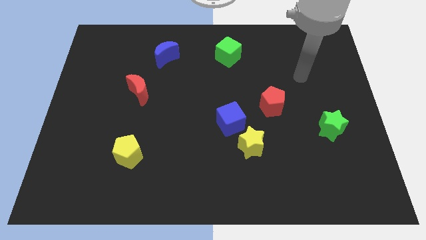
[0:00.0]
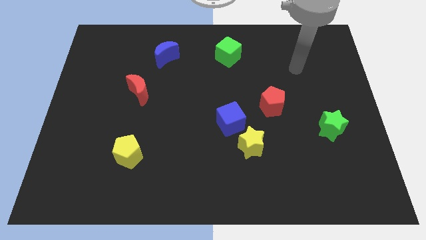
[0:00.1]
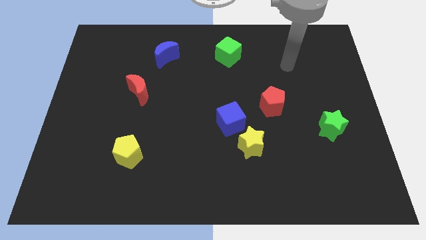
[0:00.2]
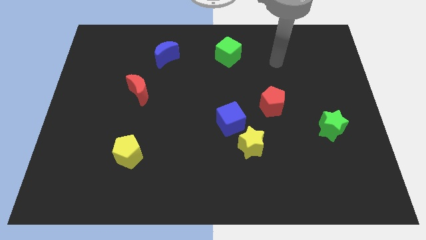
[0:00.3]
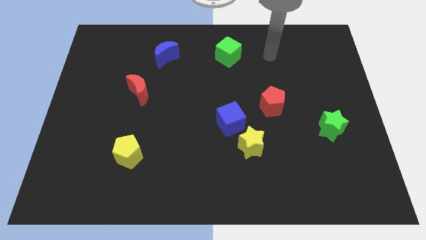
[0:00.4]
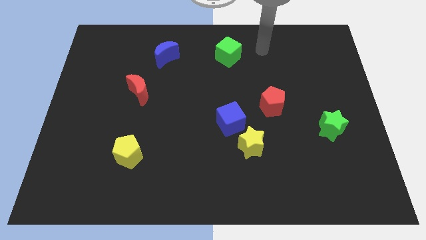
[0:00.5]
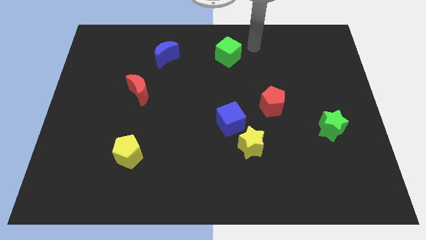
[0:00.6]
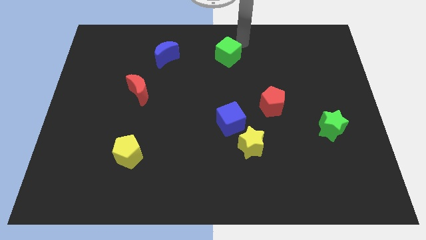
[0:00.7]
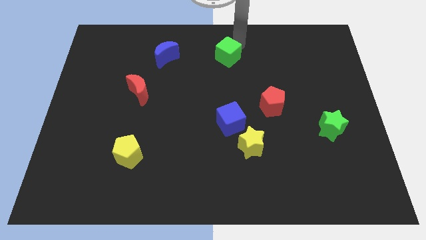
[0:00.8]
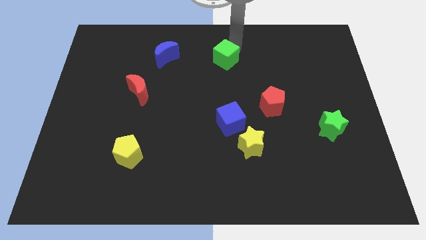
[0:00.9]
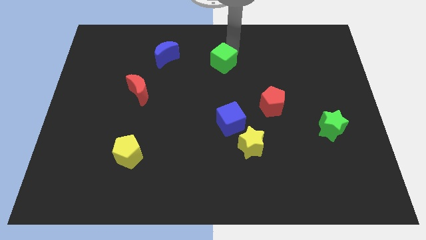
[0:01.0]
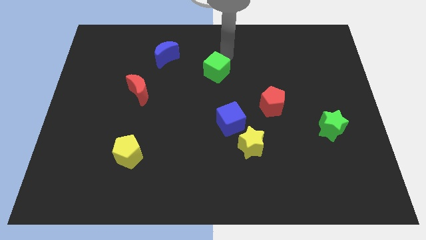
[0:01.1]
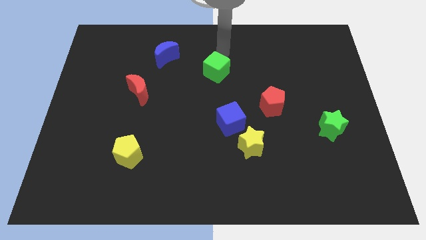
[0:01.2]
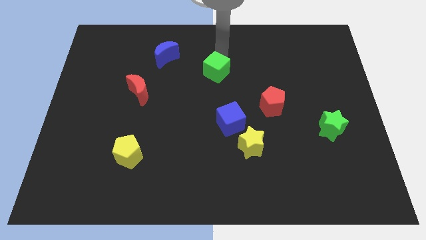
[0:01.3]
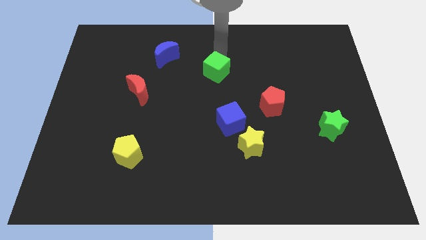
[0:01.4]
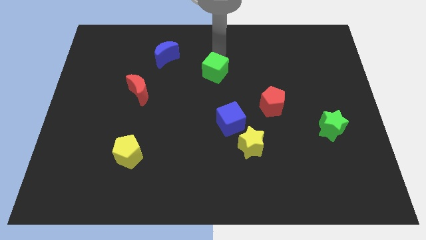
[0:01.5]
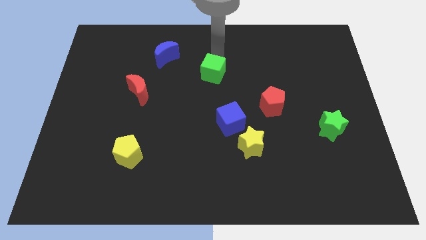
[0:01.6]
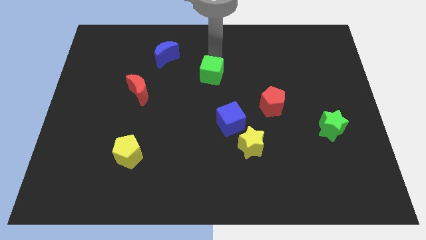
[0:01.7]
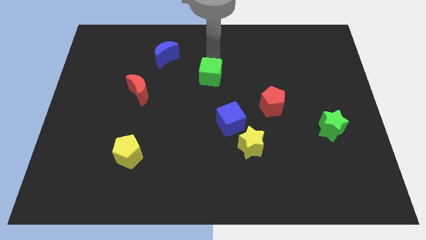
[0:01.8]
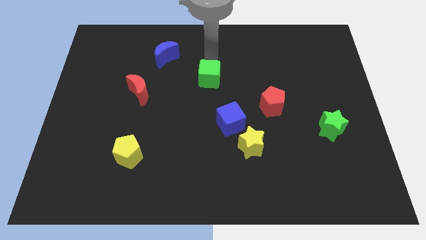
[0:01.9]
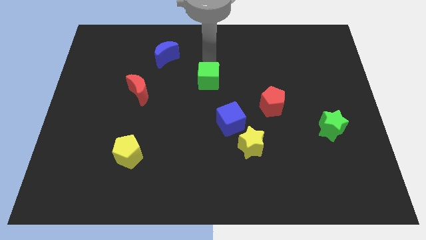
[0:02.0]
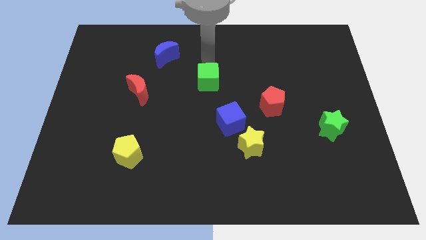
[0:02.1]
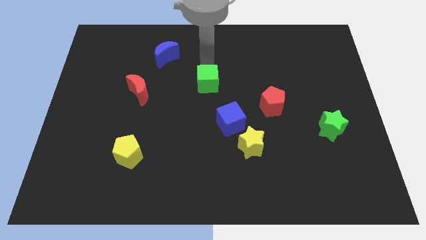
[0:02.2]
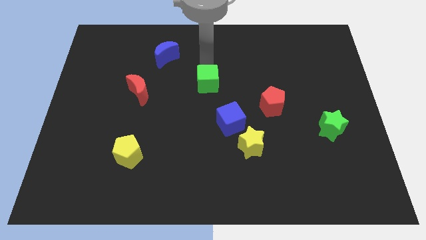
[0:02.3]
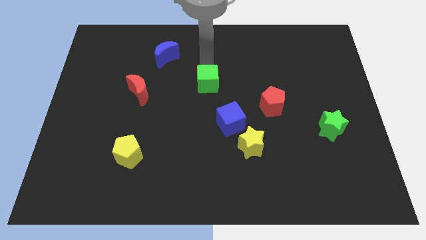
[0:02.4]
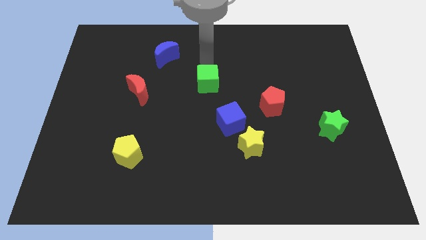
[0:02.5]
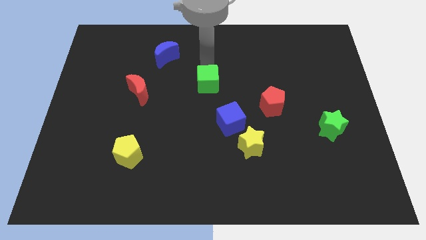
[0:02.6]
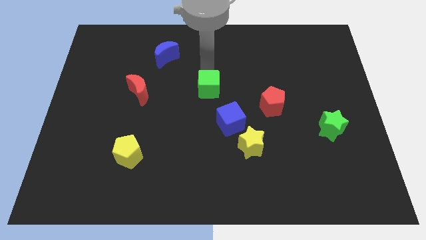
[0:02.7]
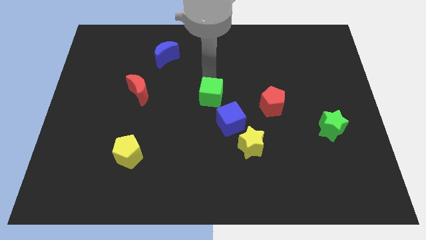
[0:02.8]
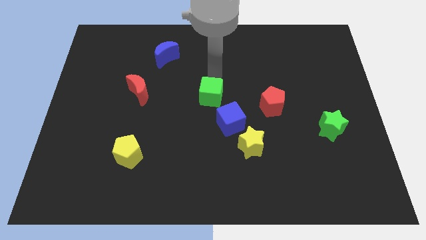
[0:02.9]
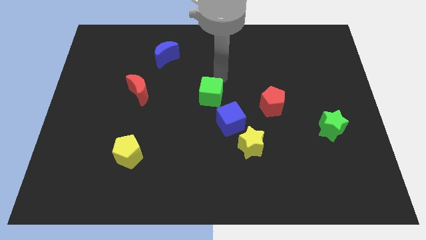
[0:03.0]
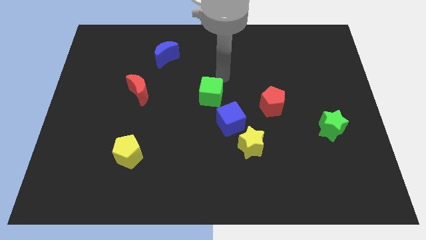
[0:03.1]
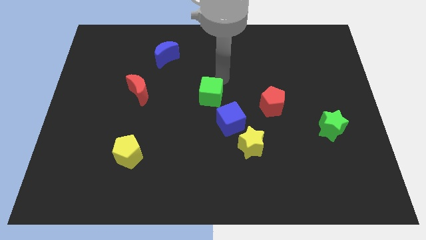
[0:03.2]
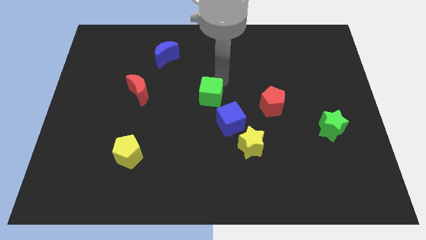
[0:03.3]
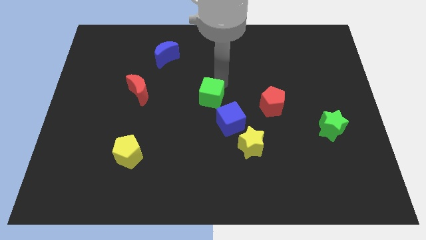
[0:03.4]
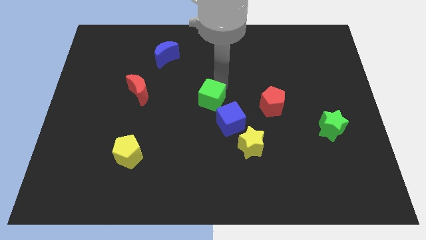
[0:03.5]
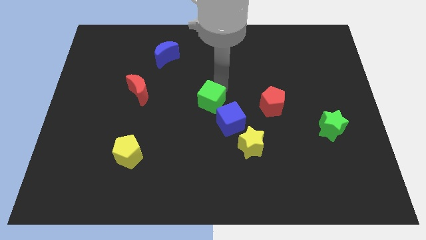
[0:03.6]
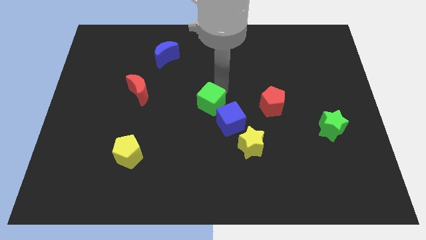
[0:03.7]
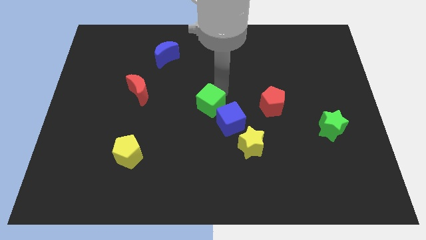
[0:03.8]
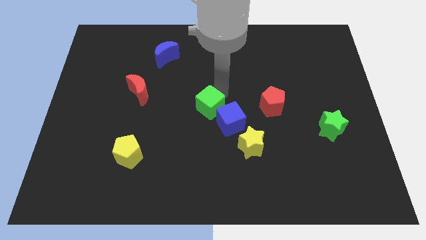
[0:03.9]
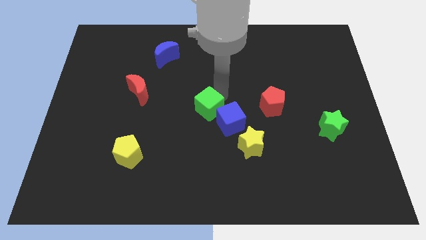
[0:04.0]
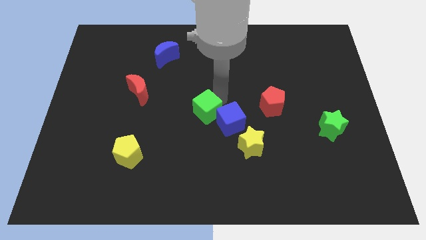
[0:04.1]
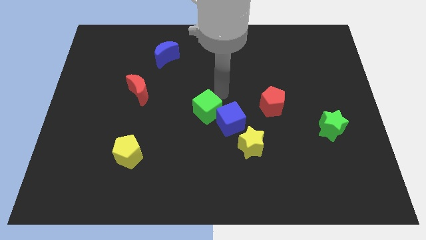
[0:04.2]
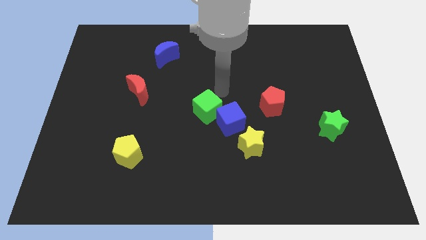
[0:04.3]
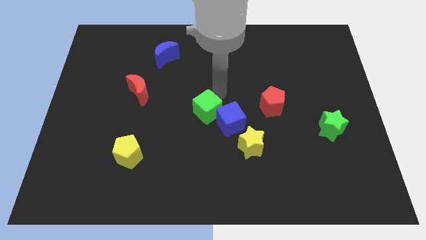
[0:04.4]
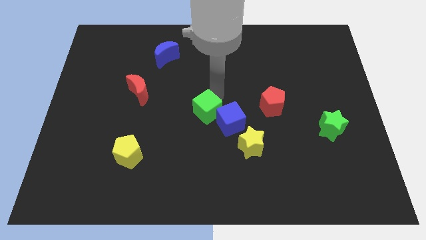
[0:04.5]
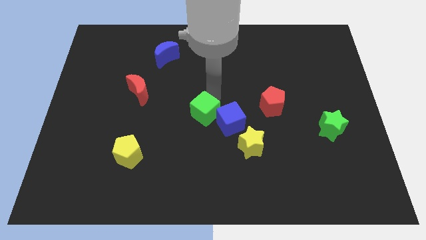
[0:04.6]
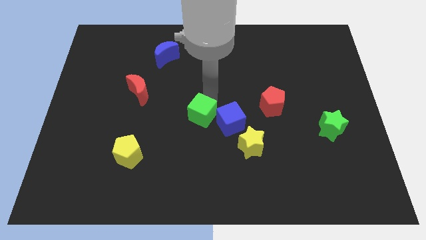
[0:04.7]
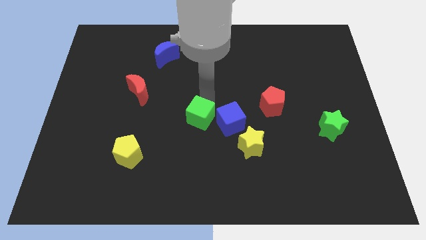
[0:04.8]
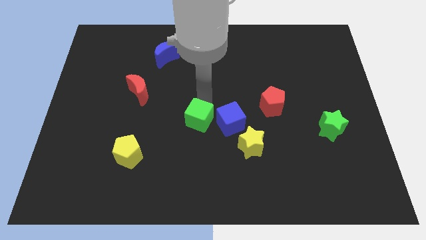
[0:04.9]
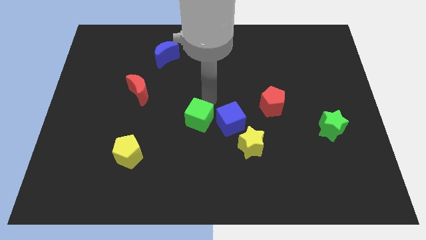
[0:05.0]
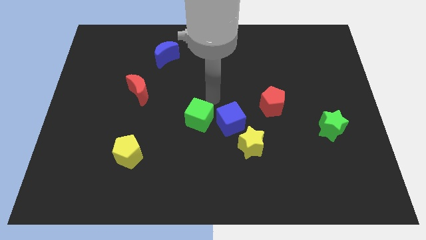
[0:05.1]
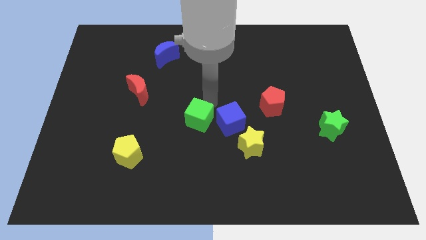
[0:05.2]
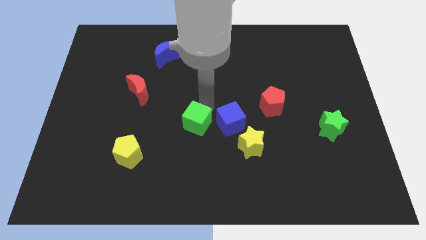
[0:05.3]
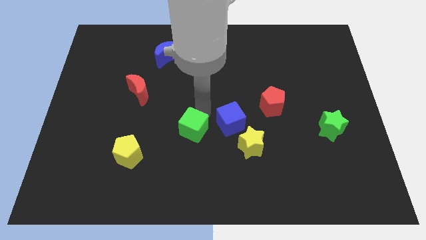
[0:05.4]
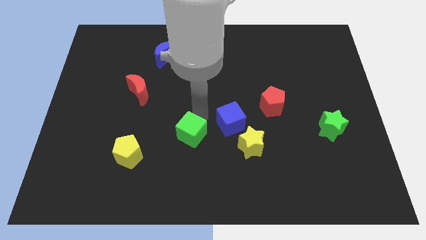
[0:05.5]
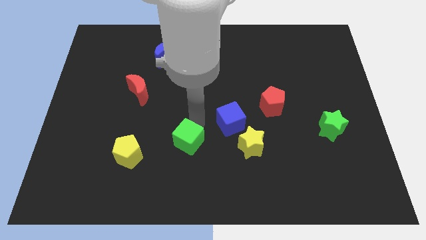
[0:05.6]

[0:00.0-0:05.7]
put the green cube to the right of the yellow pentagon

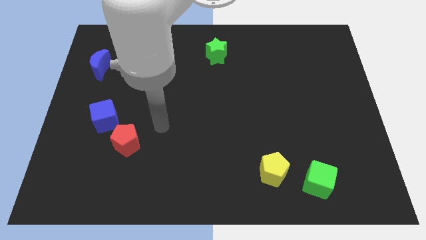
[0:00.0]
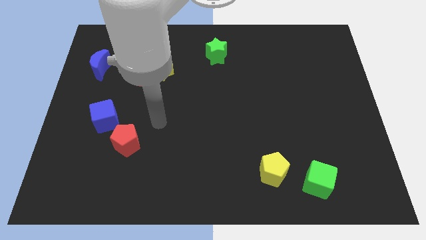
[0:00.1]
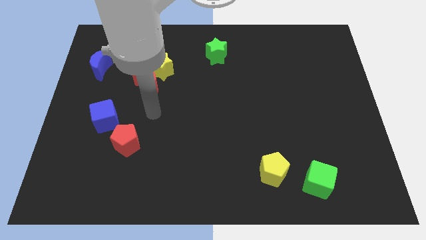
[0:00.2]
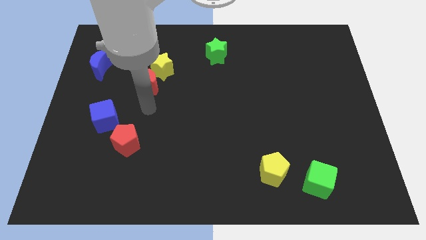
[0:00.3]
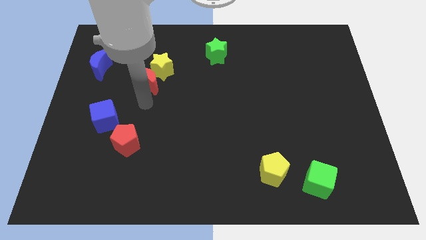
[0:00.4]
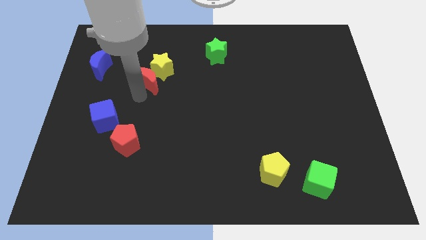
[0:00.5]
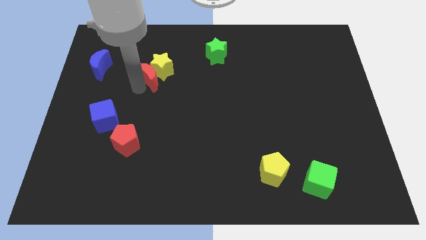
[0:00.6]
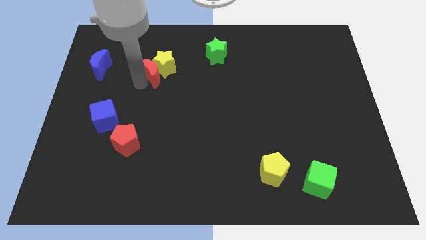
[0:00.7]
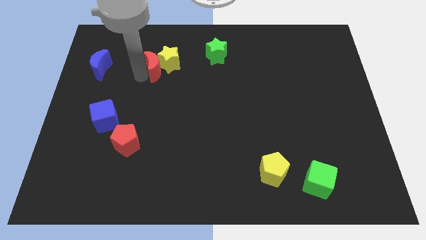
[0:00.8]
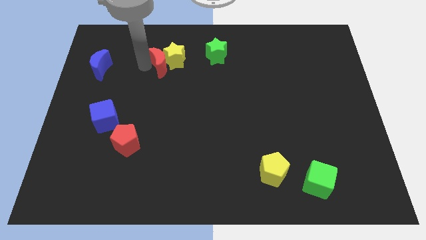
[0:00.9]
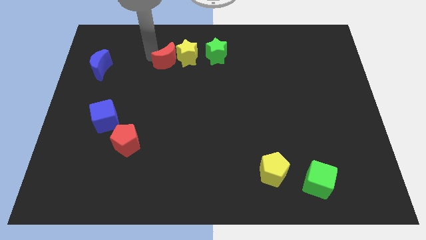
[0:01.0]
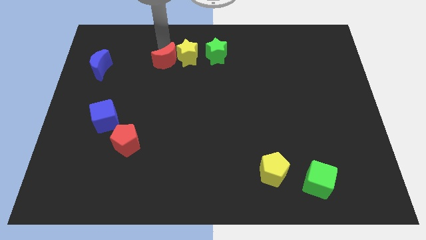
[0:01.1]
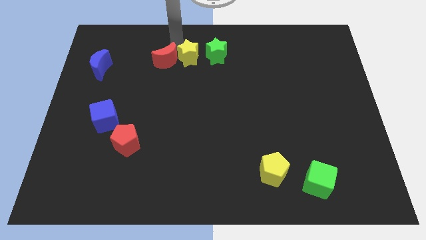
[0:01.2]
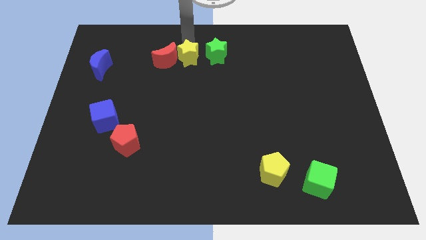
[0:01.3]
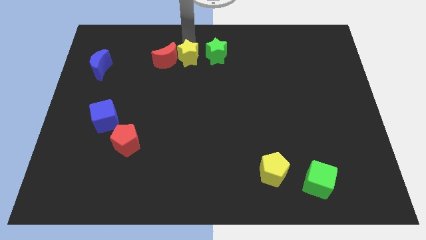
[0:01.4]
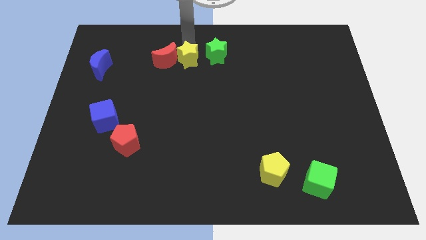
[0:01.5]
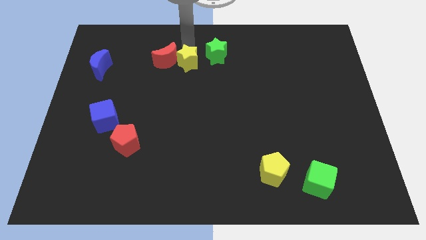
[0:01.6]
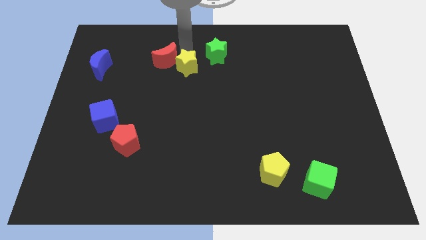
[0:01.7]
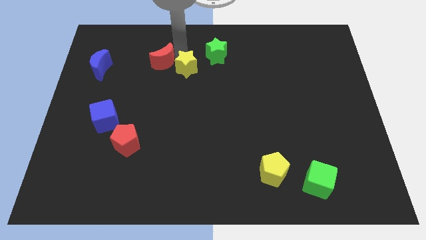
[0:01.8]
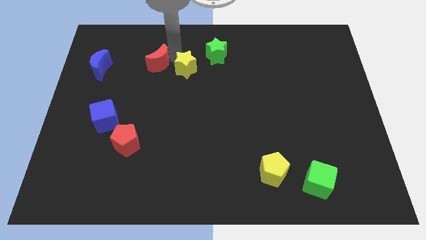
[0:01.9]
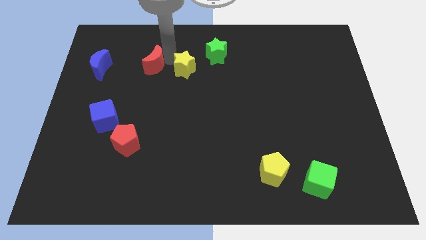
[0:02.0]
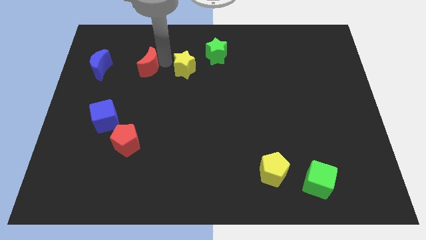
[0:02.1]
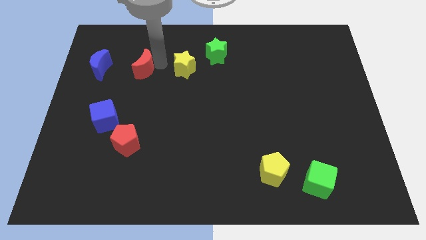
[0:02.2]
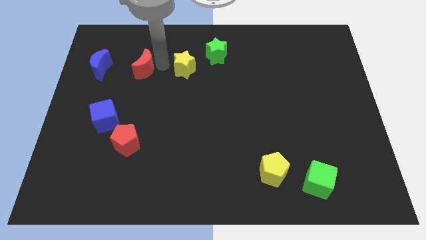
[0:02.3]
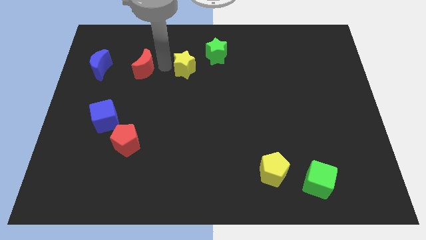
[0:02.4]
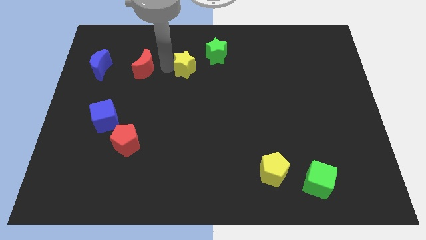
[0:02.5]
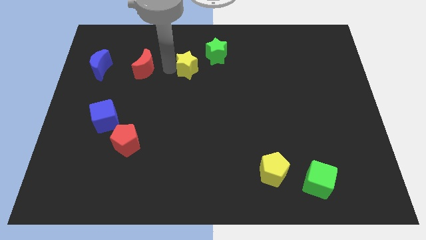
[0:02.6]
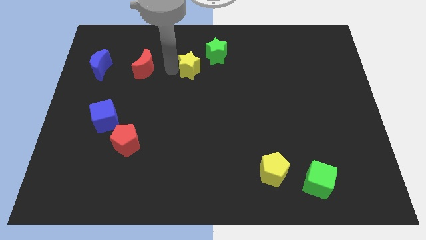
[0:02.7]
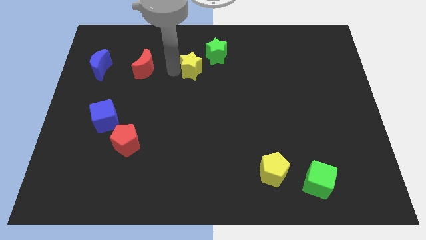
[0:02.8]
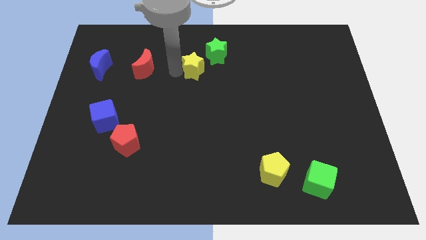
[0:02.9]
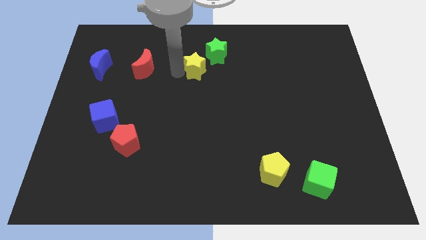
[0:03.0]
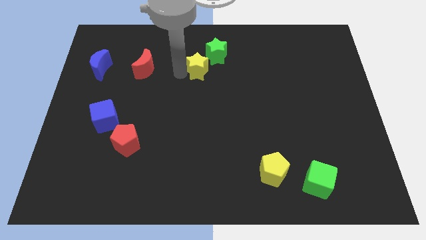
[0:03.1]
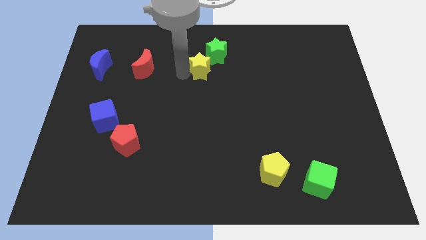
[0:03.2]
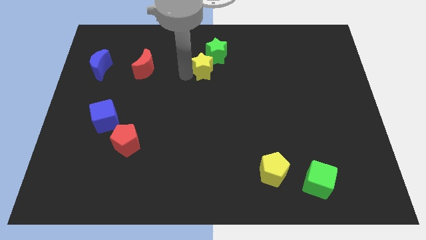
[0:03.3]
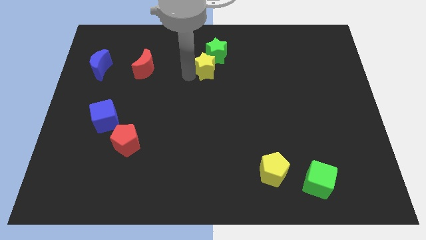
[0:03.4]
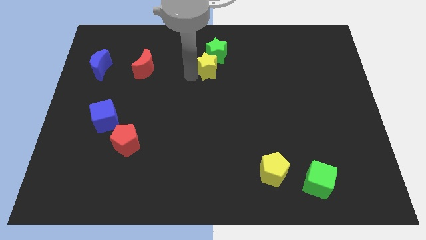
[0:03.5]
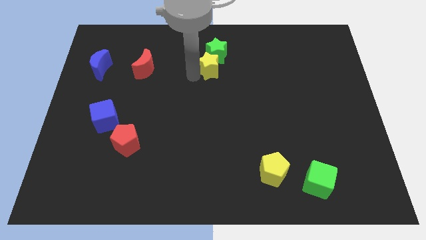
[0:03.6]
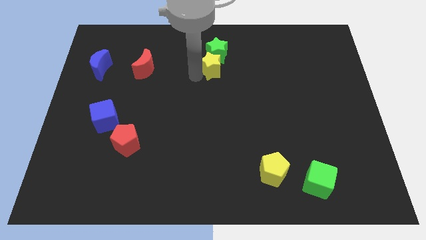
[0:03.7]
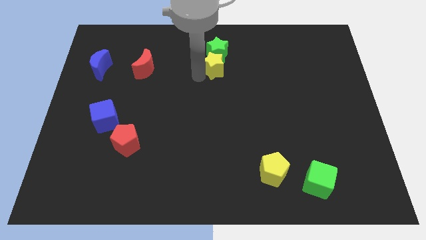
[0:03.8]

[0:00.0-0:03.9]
push the yellow star to the bottom right side of the green star
